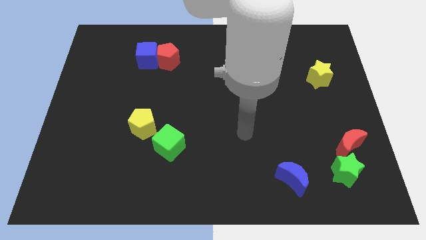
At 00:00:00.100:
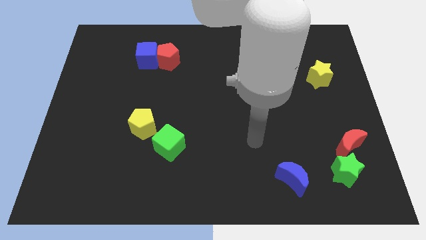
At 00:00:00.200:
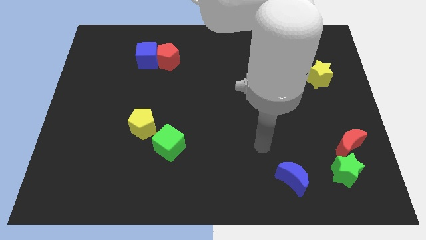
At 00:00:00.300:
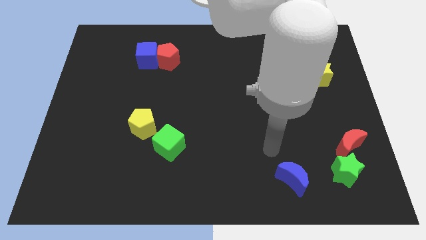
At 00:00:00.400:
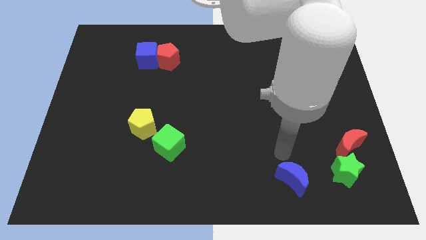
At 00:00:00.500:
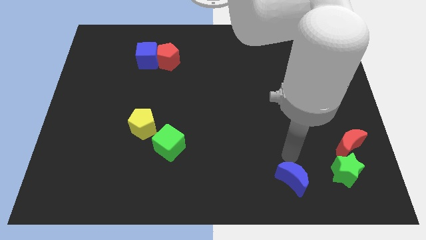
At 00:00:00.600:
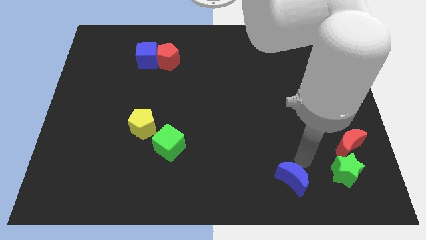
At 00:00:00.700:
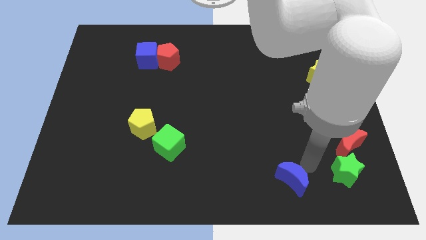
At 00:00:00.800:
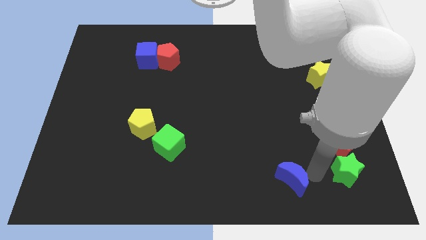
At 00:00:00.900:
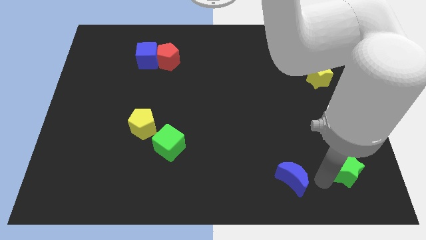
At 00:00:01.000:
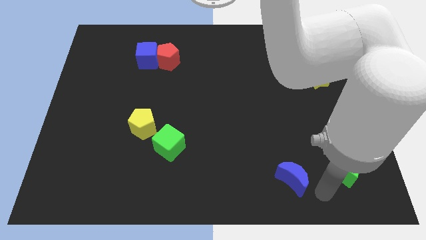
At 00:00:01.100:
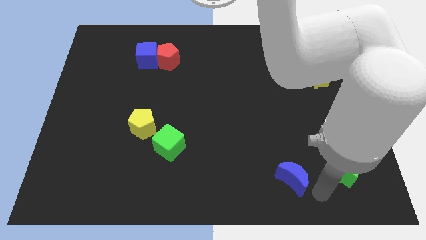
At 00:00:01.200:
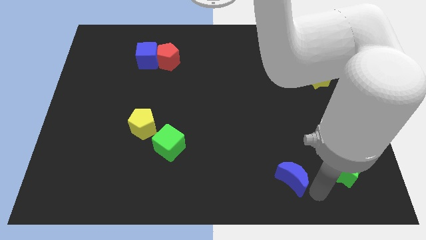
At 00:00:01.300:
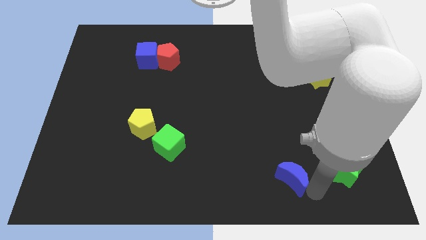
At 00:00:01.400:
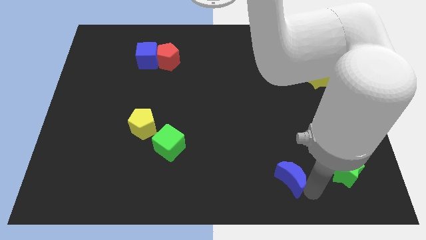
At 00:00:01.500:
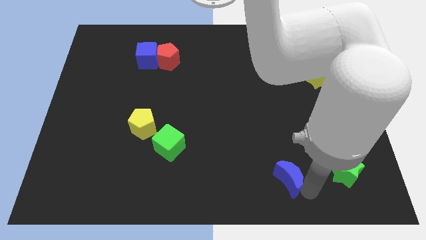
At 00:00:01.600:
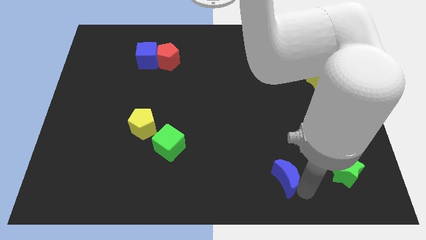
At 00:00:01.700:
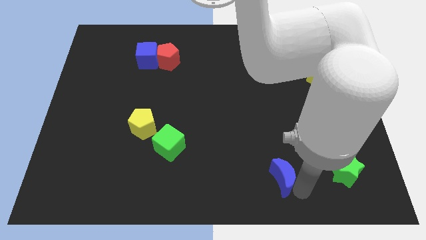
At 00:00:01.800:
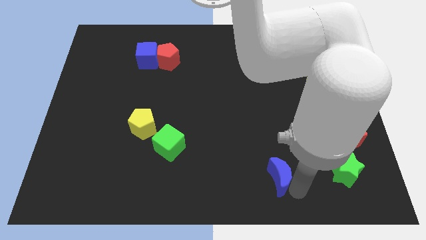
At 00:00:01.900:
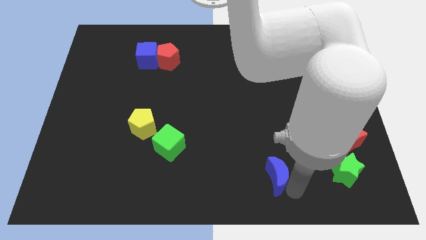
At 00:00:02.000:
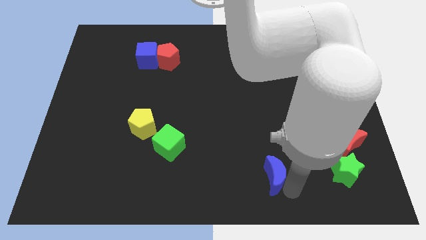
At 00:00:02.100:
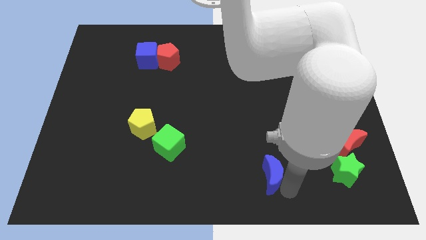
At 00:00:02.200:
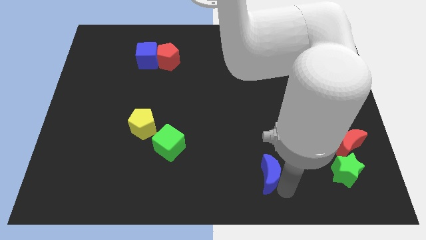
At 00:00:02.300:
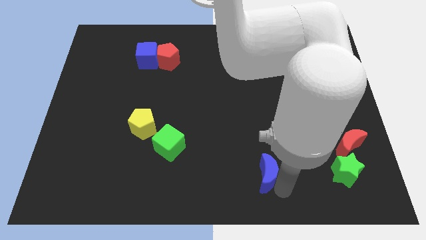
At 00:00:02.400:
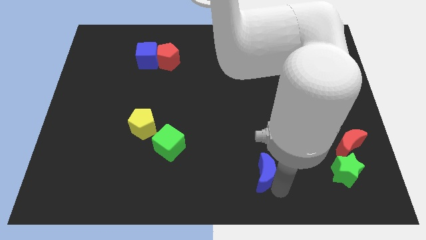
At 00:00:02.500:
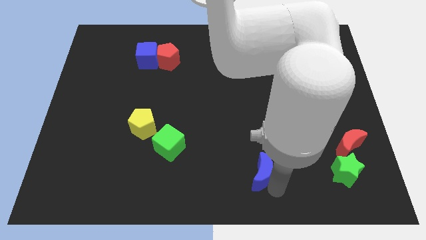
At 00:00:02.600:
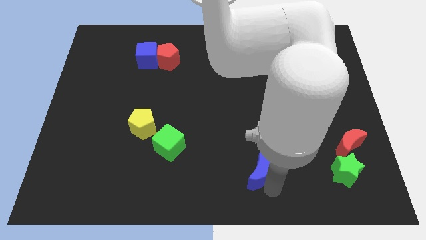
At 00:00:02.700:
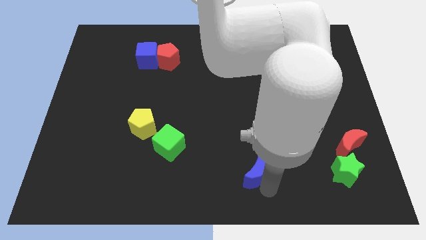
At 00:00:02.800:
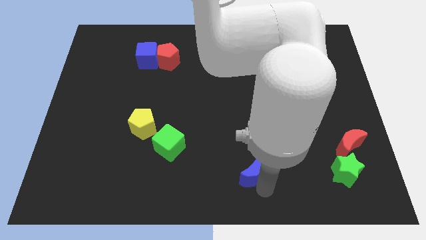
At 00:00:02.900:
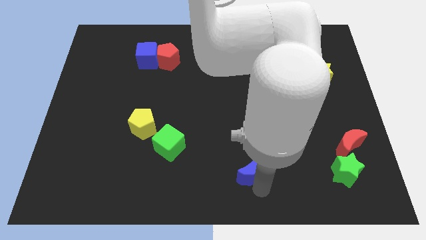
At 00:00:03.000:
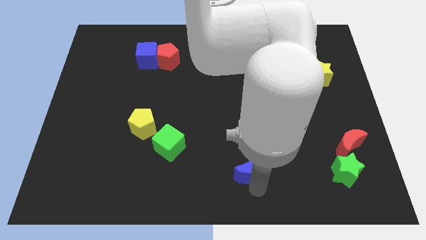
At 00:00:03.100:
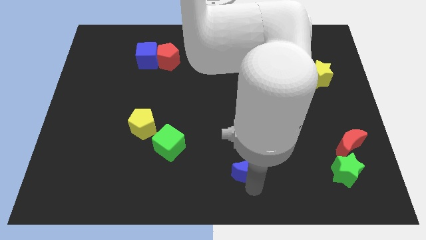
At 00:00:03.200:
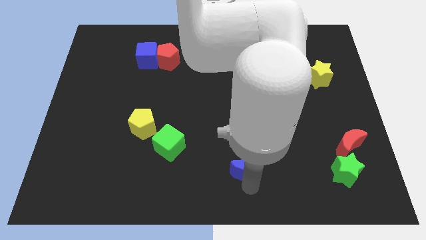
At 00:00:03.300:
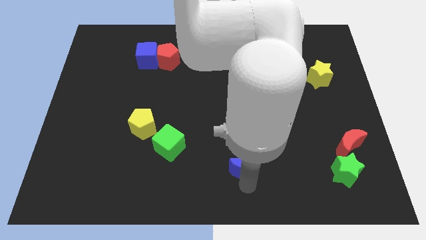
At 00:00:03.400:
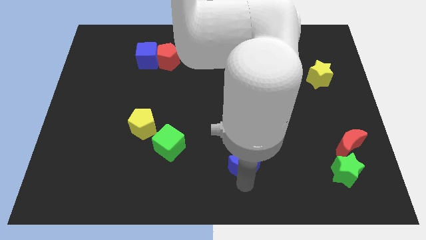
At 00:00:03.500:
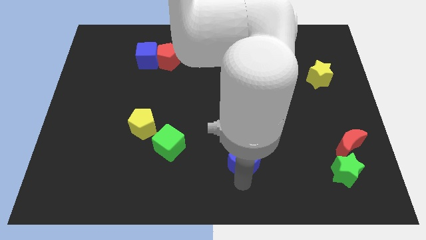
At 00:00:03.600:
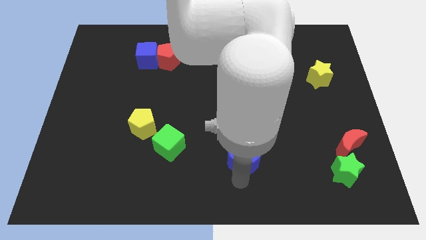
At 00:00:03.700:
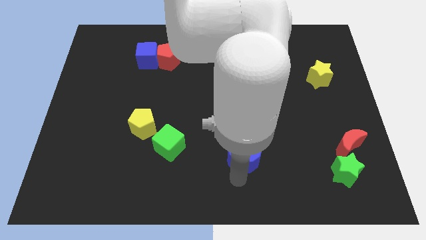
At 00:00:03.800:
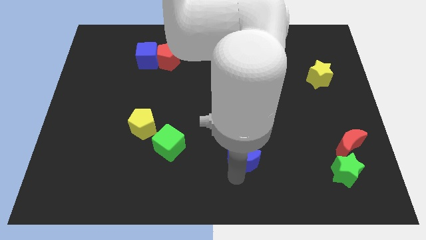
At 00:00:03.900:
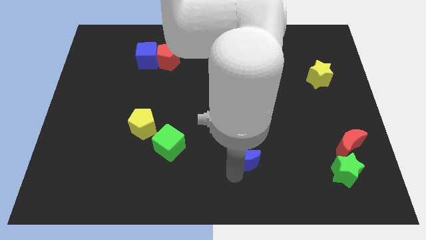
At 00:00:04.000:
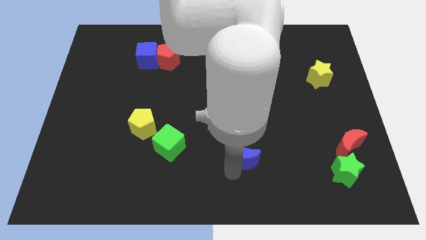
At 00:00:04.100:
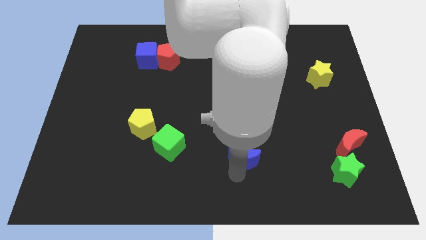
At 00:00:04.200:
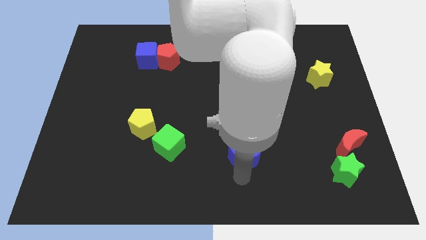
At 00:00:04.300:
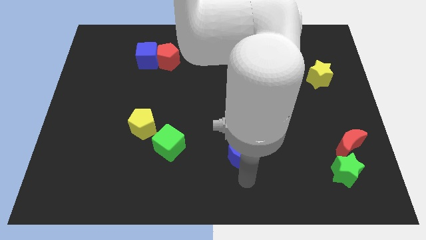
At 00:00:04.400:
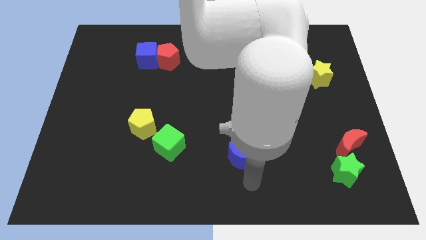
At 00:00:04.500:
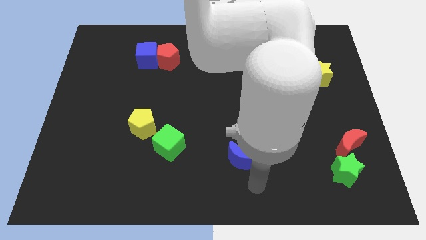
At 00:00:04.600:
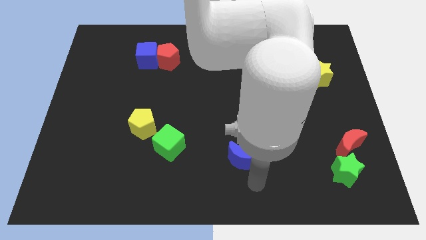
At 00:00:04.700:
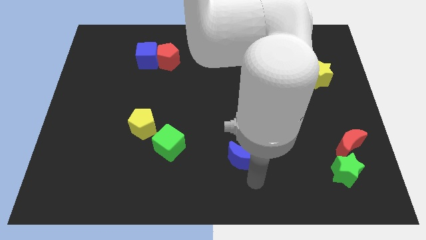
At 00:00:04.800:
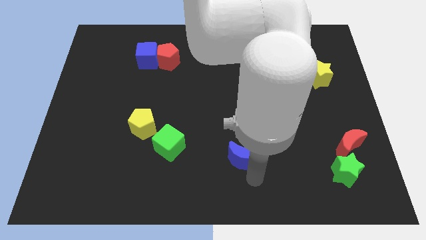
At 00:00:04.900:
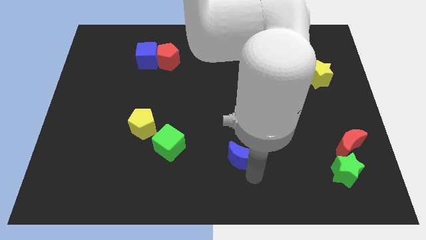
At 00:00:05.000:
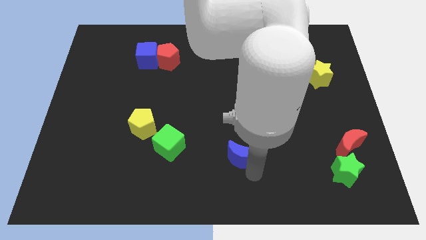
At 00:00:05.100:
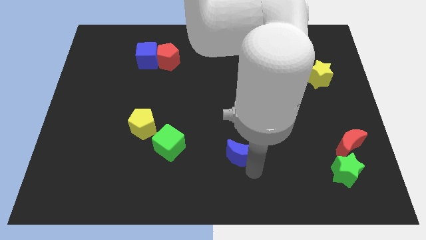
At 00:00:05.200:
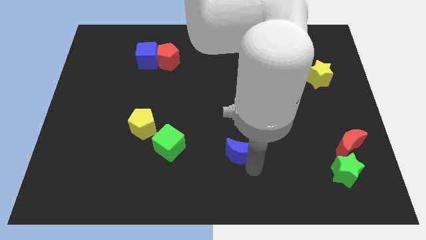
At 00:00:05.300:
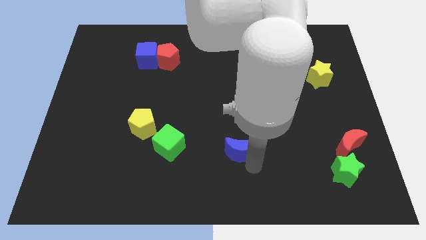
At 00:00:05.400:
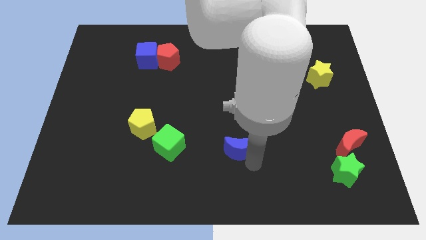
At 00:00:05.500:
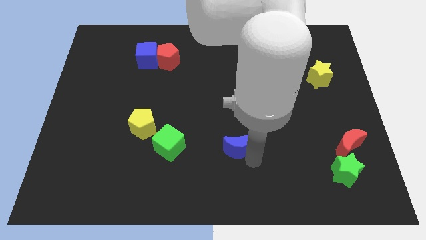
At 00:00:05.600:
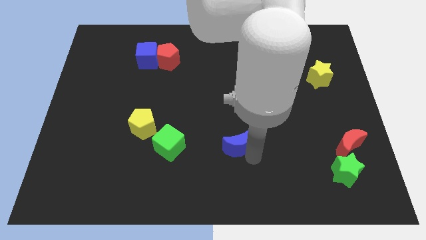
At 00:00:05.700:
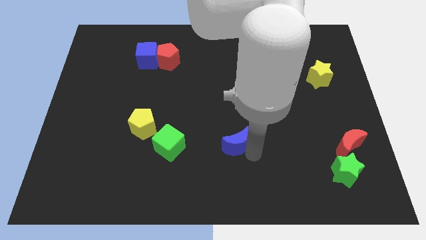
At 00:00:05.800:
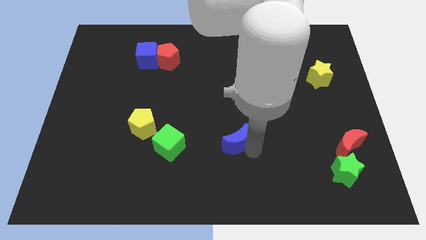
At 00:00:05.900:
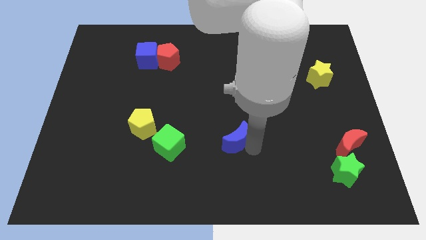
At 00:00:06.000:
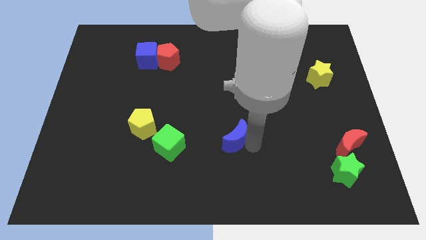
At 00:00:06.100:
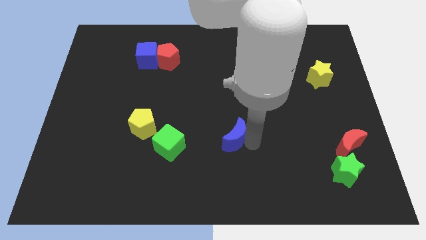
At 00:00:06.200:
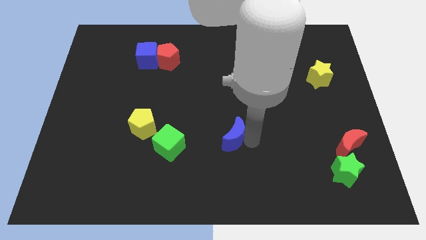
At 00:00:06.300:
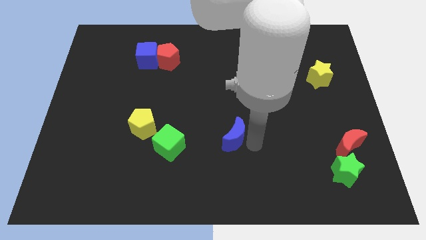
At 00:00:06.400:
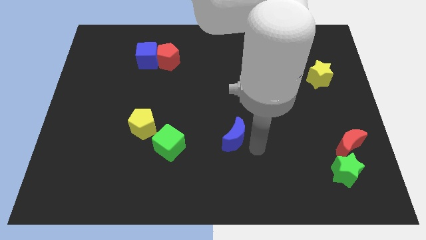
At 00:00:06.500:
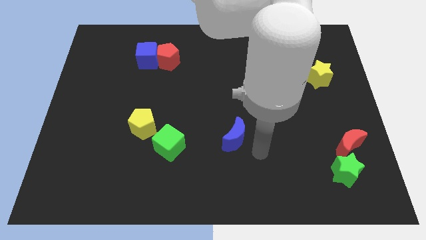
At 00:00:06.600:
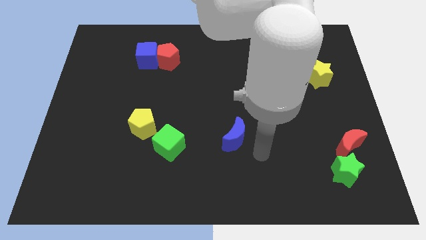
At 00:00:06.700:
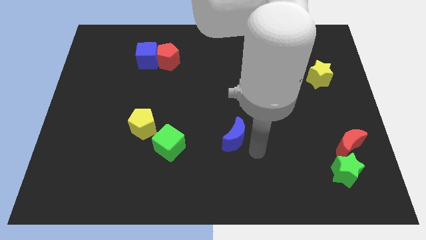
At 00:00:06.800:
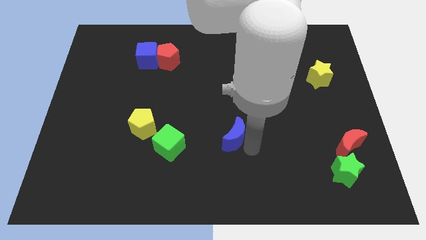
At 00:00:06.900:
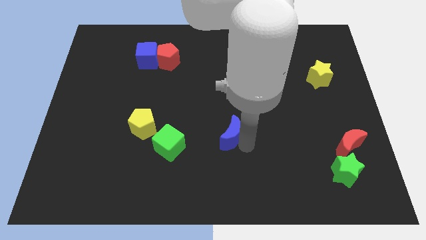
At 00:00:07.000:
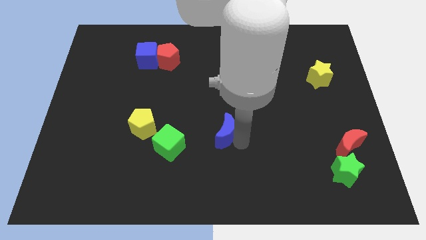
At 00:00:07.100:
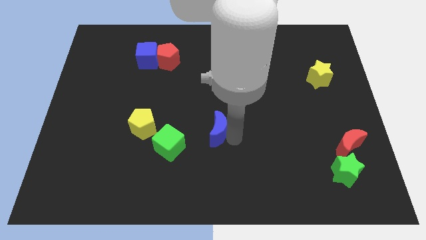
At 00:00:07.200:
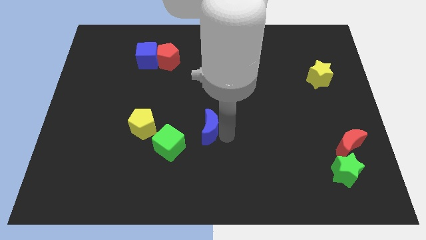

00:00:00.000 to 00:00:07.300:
move the blue moon diagonally upwards and left

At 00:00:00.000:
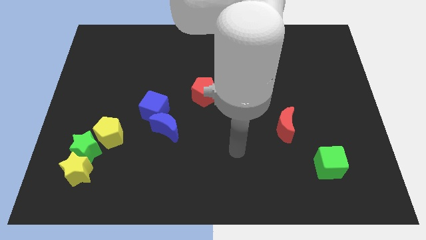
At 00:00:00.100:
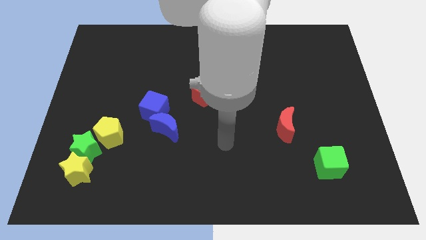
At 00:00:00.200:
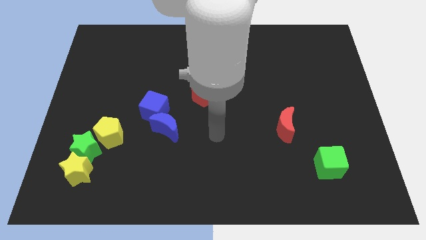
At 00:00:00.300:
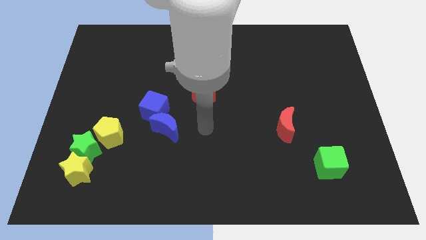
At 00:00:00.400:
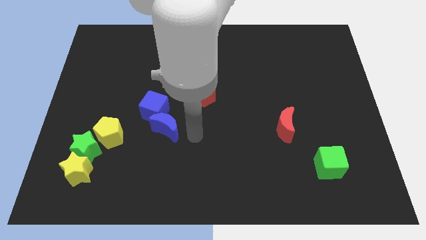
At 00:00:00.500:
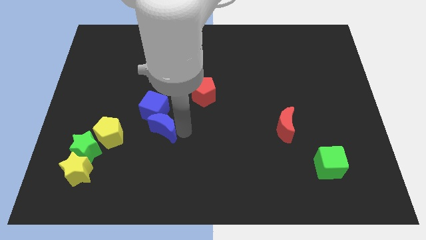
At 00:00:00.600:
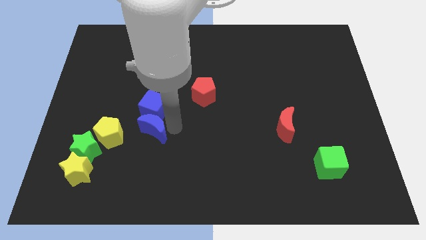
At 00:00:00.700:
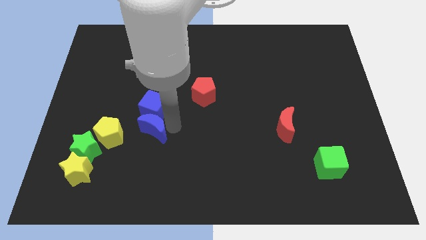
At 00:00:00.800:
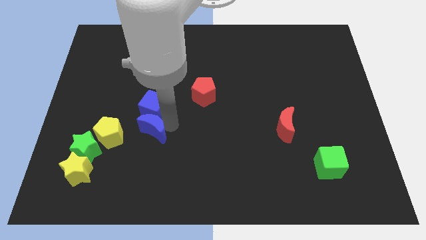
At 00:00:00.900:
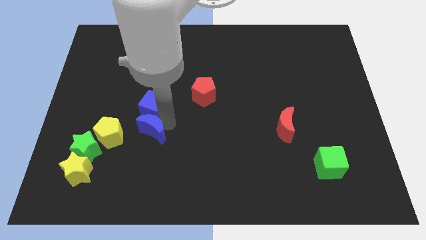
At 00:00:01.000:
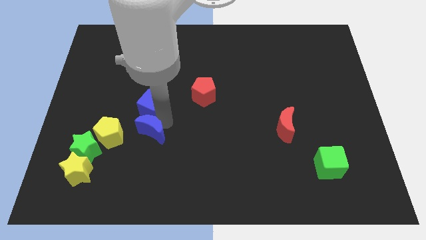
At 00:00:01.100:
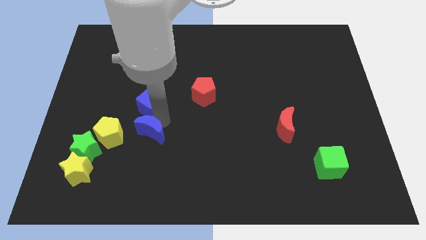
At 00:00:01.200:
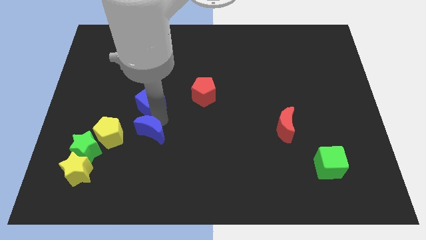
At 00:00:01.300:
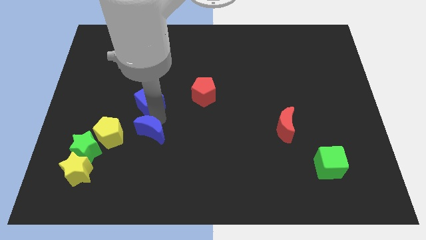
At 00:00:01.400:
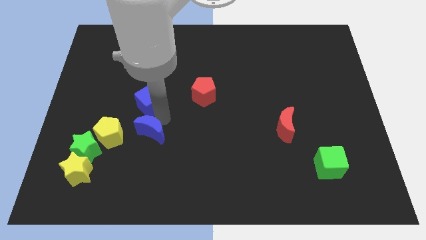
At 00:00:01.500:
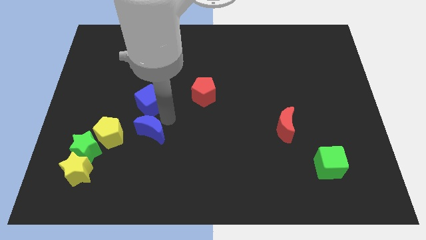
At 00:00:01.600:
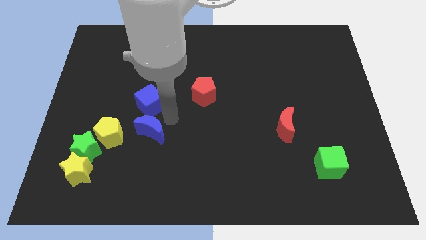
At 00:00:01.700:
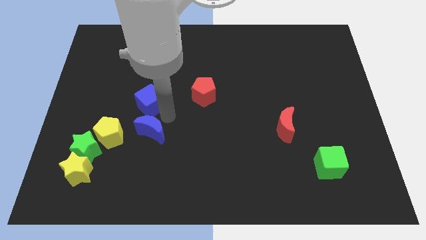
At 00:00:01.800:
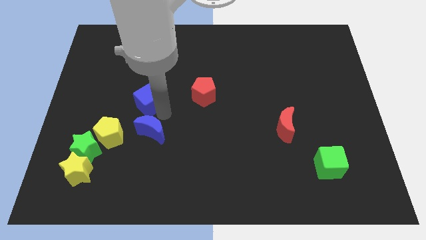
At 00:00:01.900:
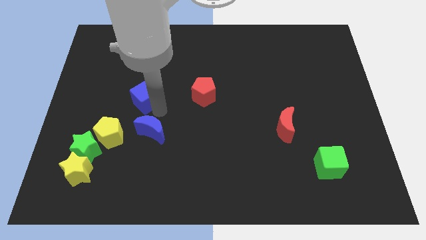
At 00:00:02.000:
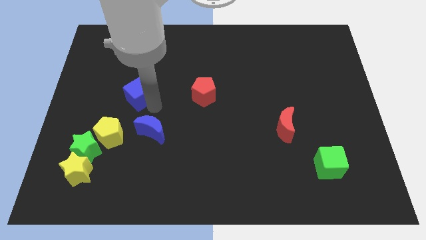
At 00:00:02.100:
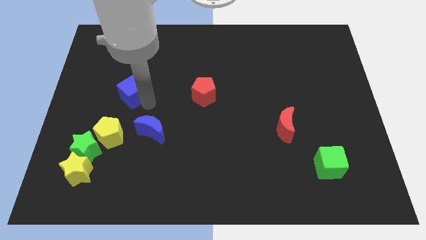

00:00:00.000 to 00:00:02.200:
slightly push the blue cube up and then left
